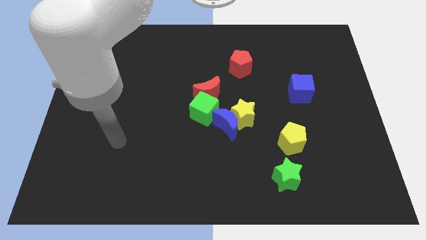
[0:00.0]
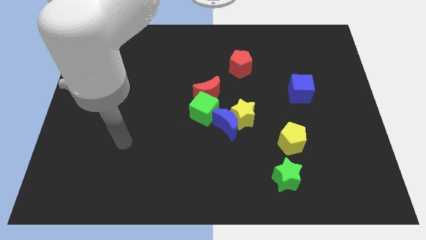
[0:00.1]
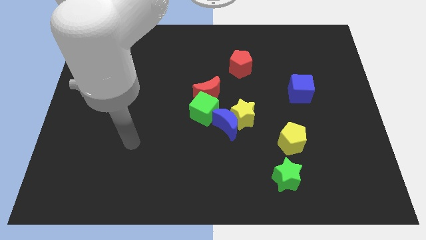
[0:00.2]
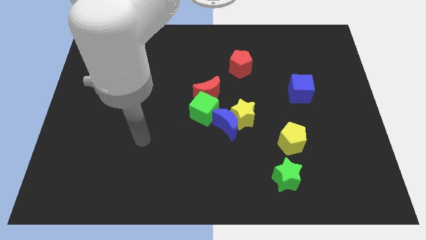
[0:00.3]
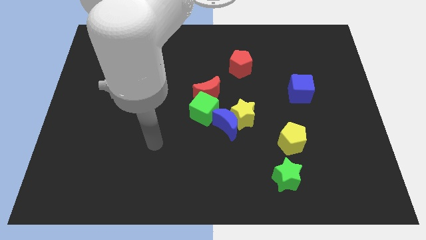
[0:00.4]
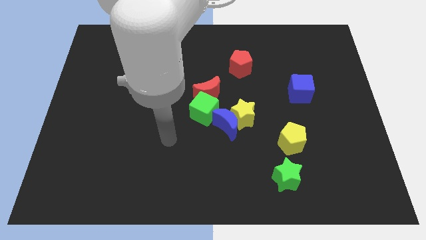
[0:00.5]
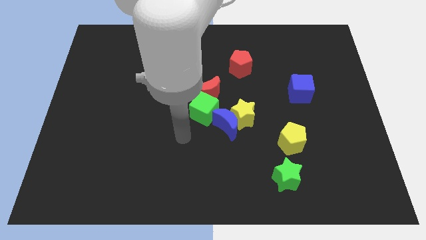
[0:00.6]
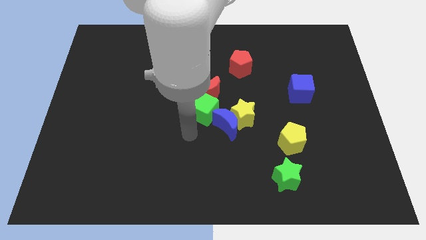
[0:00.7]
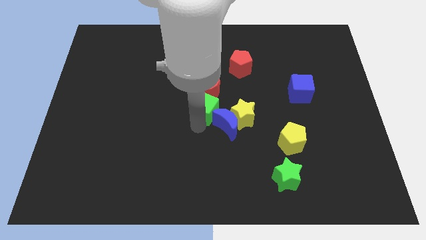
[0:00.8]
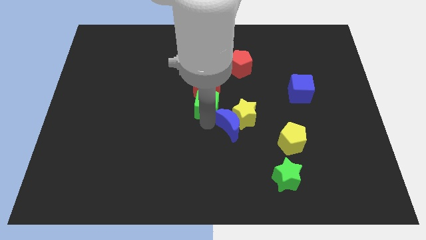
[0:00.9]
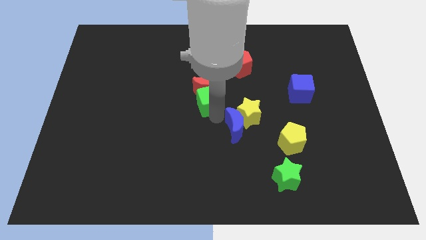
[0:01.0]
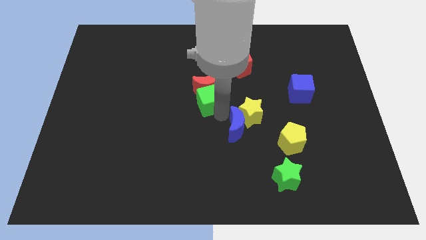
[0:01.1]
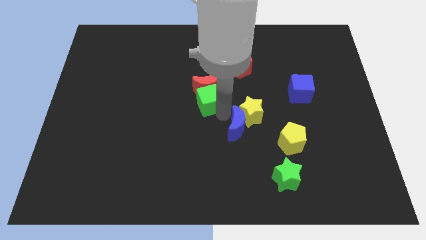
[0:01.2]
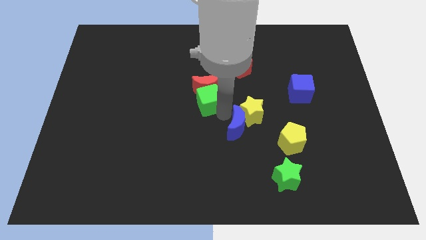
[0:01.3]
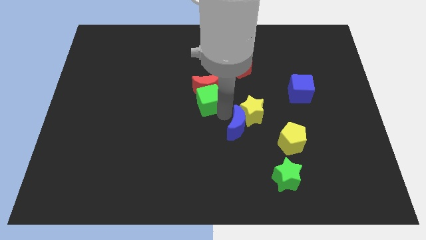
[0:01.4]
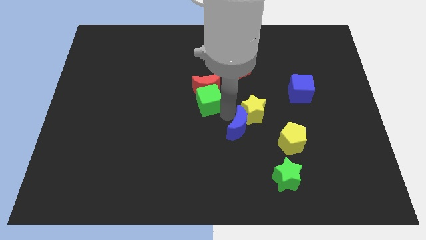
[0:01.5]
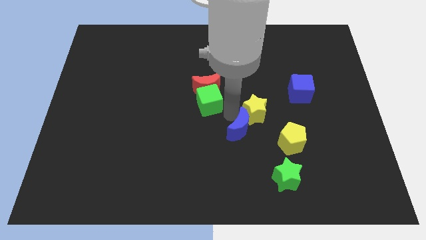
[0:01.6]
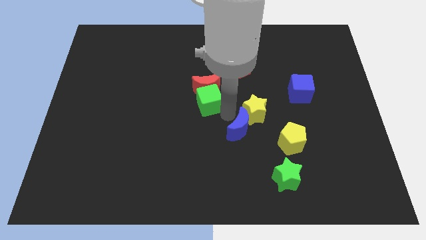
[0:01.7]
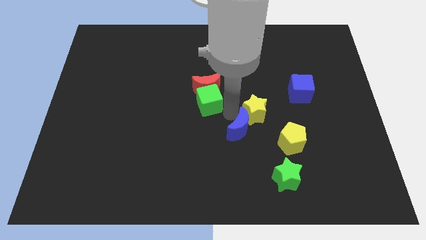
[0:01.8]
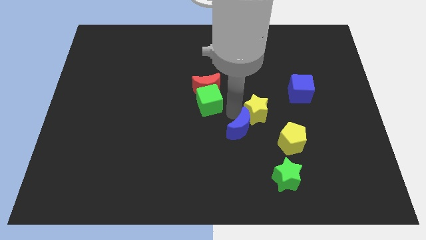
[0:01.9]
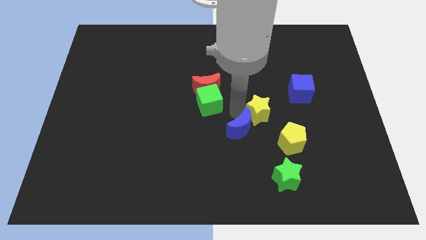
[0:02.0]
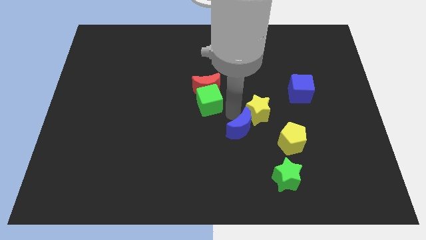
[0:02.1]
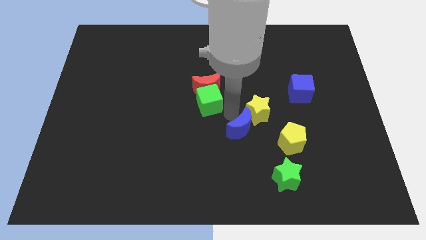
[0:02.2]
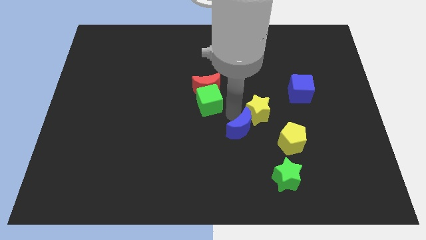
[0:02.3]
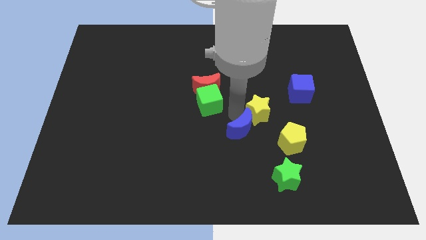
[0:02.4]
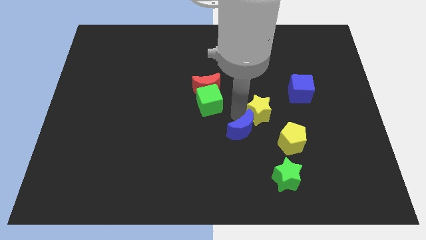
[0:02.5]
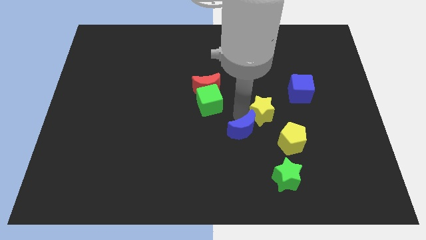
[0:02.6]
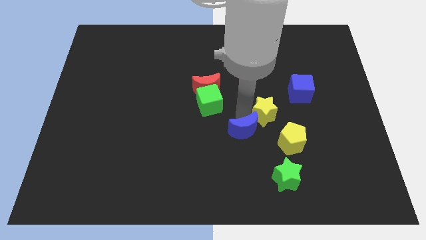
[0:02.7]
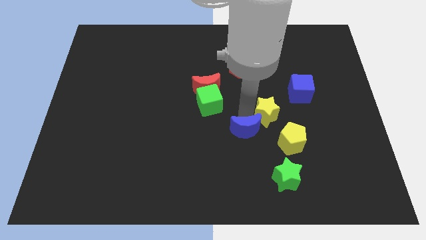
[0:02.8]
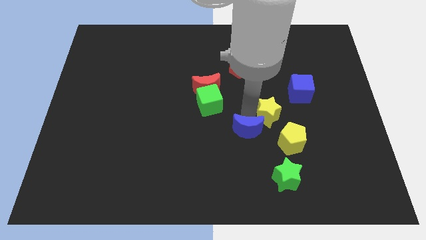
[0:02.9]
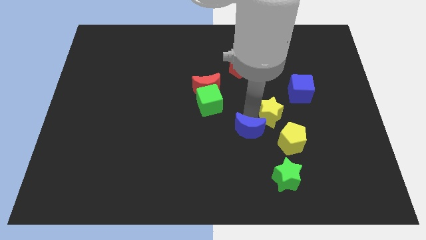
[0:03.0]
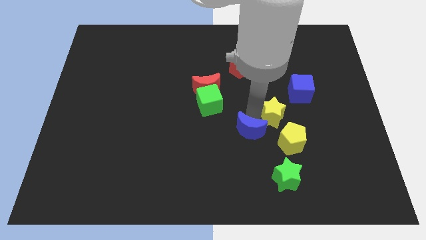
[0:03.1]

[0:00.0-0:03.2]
move the yellow star away from the blue moon and green cube

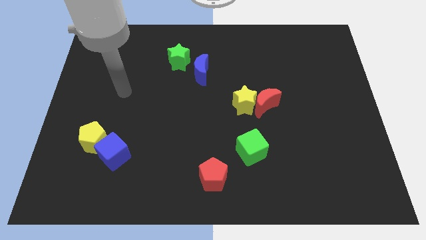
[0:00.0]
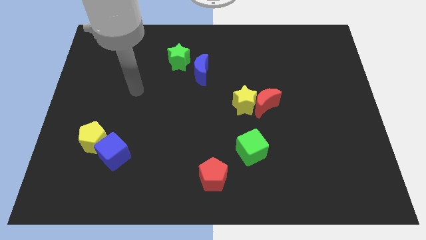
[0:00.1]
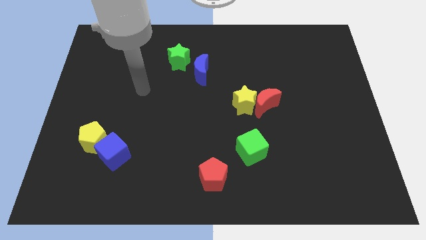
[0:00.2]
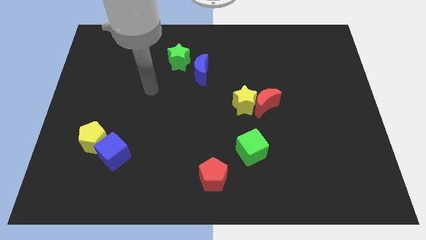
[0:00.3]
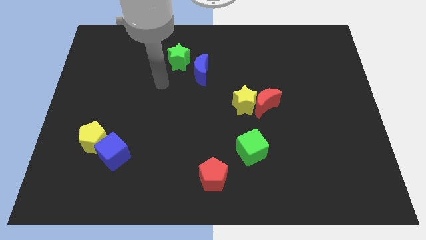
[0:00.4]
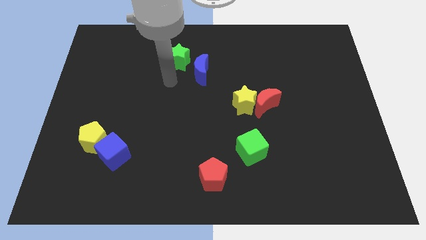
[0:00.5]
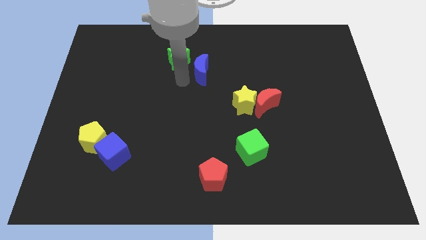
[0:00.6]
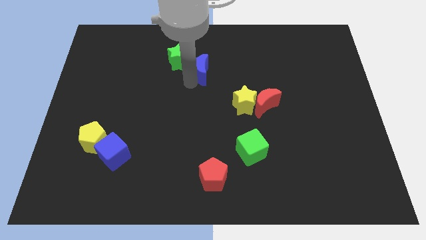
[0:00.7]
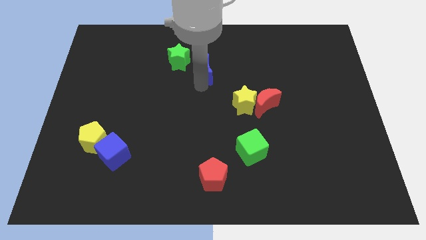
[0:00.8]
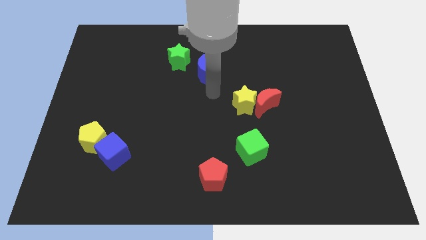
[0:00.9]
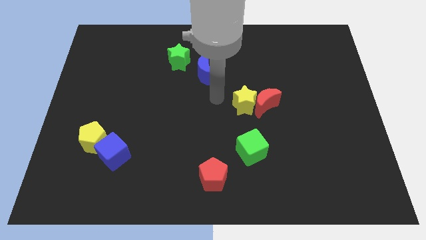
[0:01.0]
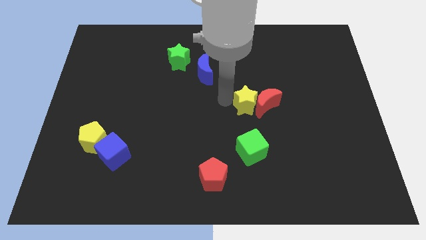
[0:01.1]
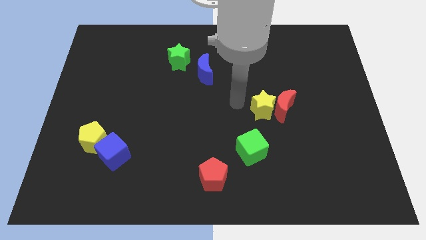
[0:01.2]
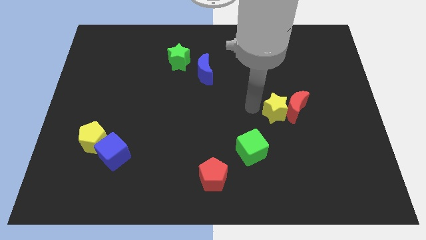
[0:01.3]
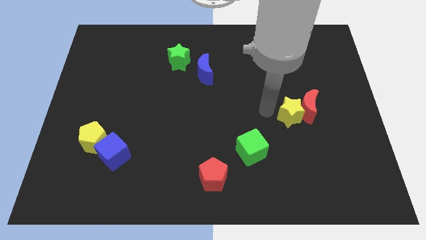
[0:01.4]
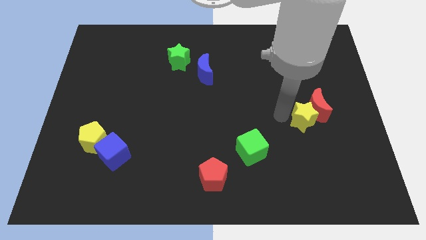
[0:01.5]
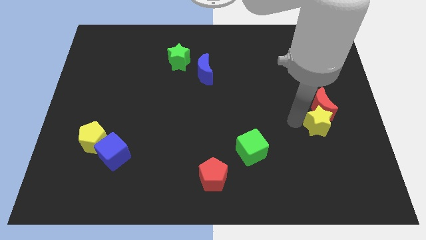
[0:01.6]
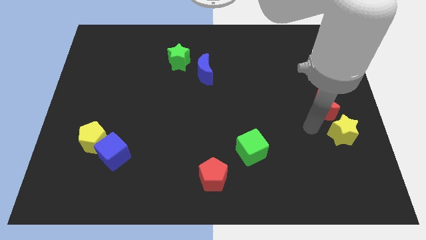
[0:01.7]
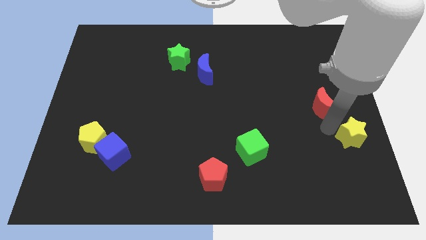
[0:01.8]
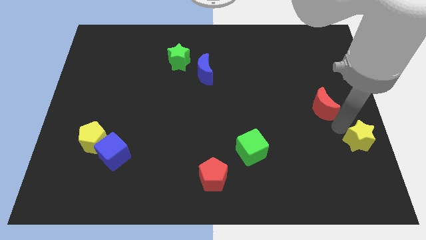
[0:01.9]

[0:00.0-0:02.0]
separate the red moon from the yellow star

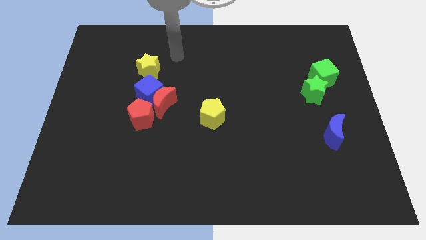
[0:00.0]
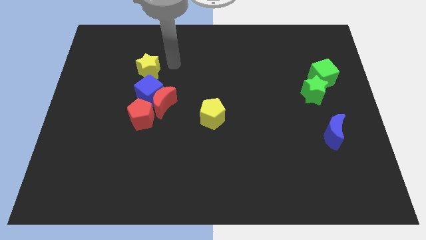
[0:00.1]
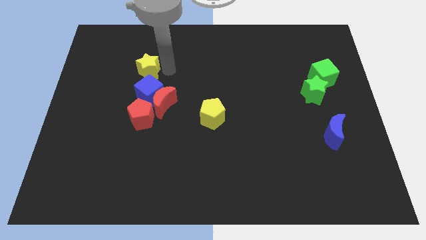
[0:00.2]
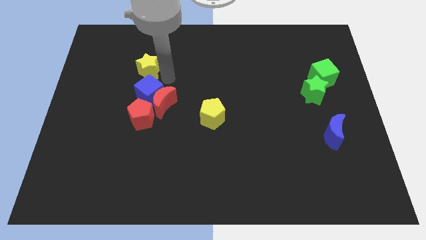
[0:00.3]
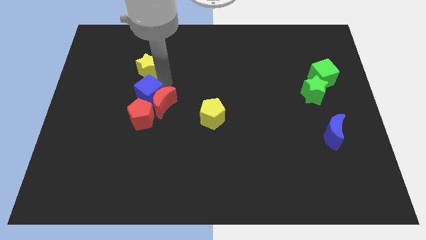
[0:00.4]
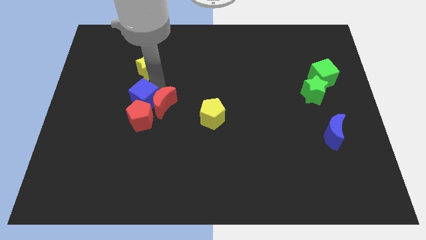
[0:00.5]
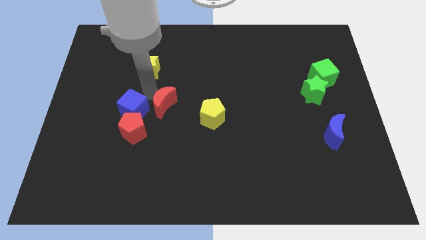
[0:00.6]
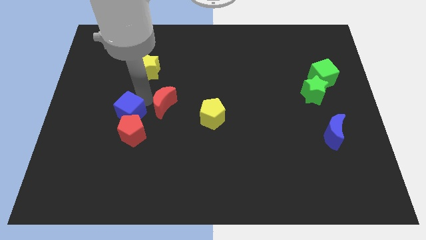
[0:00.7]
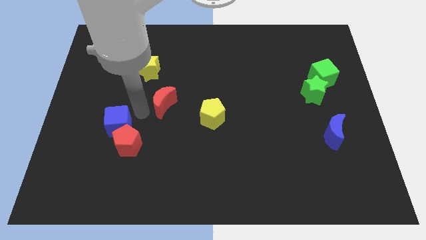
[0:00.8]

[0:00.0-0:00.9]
separate the red moon from the blue cube and red pentagon

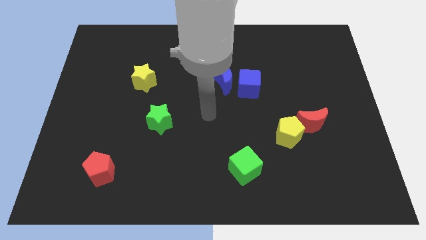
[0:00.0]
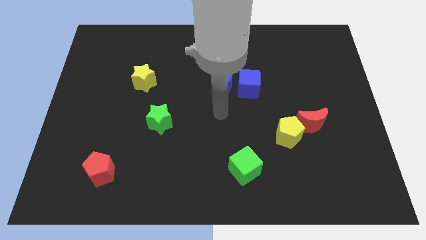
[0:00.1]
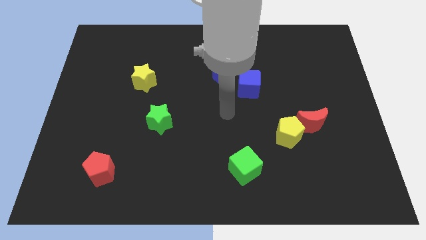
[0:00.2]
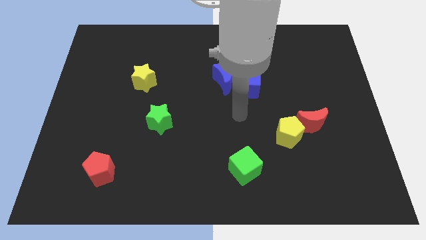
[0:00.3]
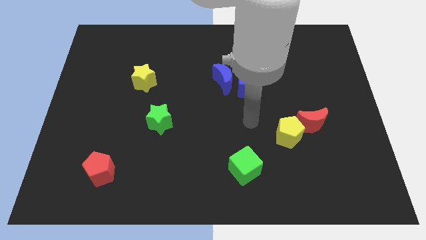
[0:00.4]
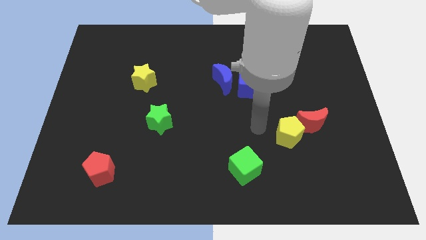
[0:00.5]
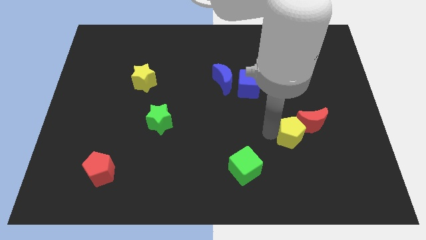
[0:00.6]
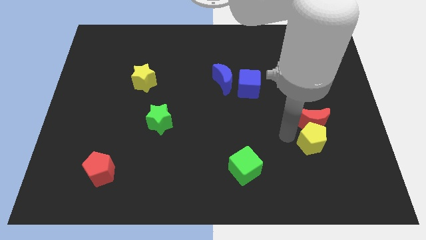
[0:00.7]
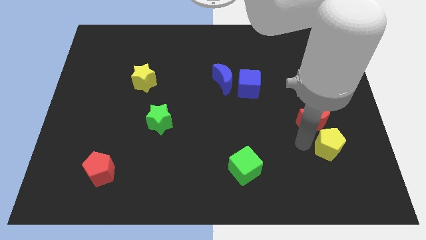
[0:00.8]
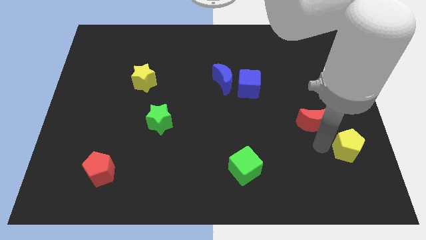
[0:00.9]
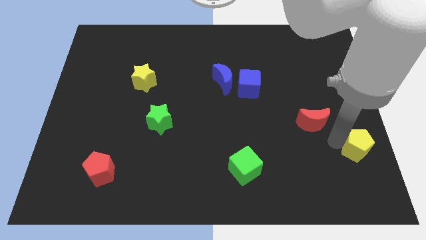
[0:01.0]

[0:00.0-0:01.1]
pull the red moon apart from the yellow pentagon

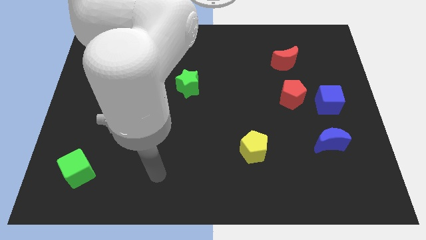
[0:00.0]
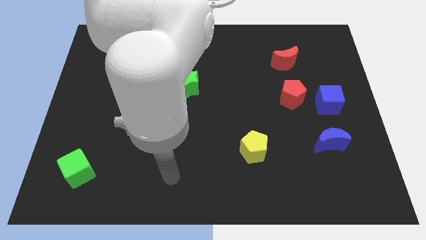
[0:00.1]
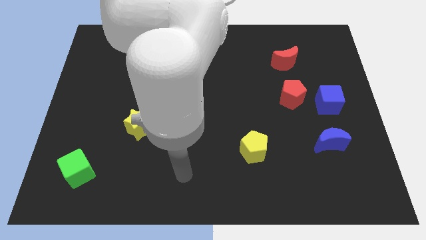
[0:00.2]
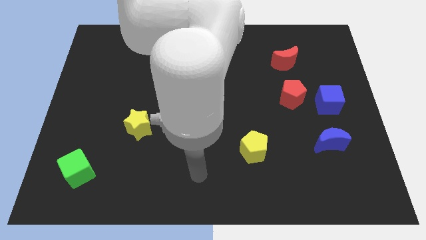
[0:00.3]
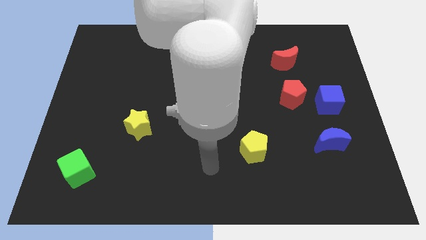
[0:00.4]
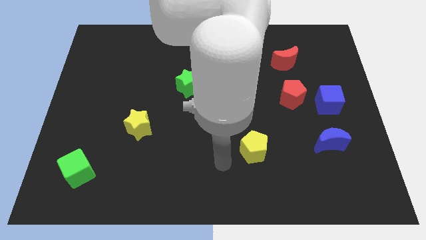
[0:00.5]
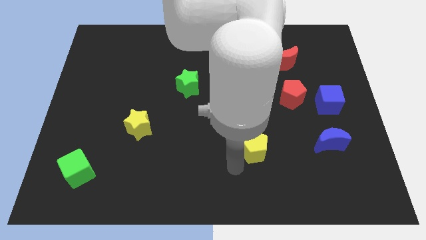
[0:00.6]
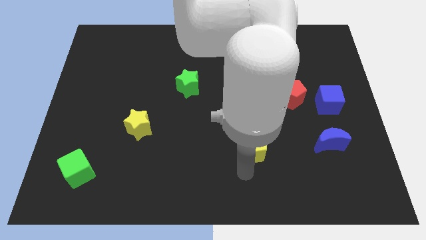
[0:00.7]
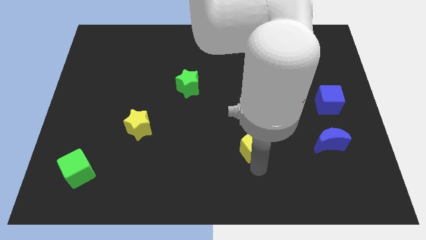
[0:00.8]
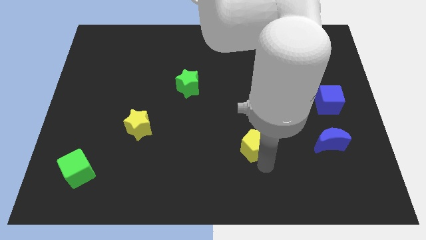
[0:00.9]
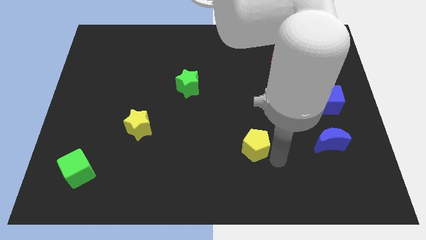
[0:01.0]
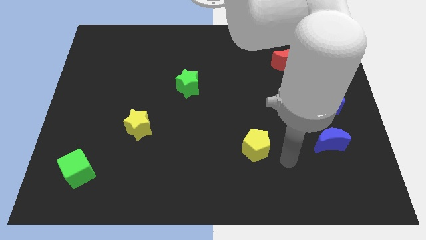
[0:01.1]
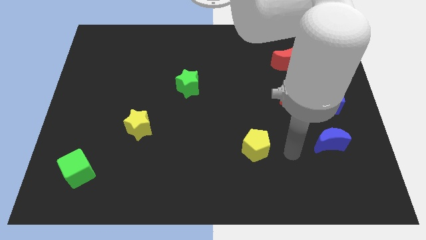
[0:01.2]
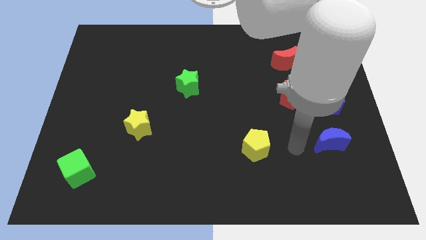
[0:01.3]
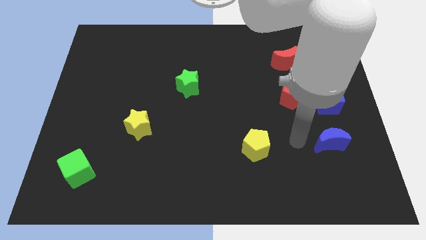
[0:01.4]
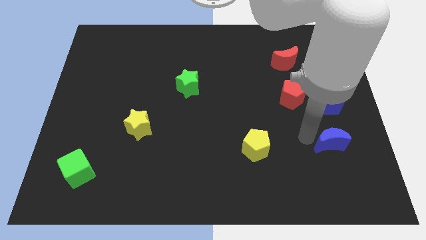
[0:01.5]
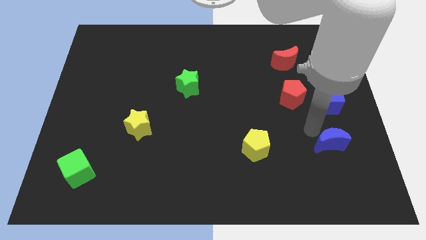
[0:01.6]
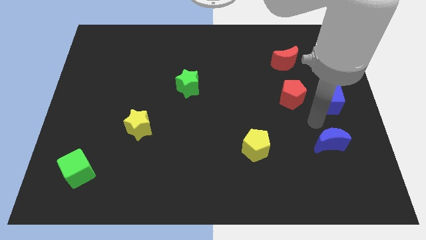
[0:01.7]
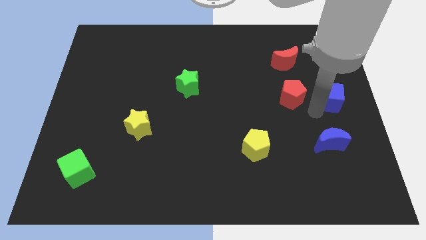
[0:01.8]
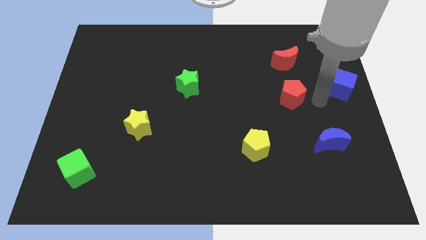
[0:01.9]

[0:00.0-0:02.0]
separate the red pentagon from the blue cube
